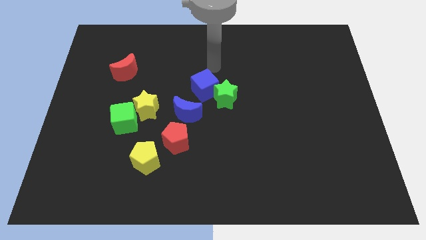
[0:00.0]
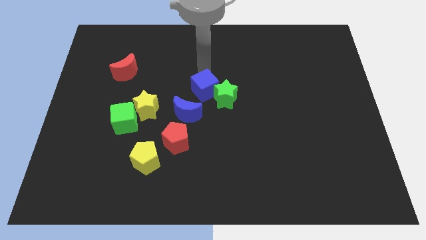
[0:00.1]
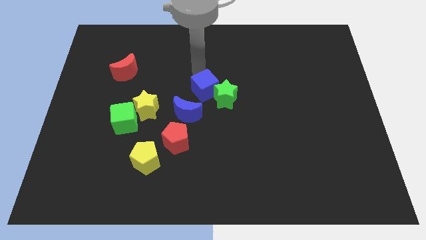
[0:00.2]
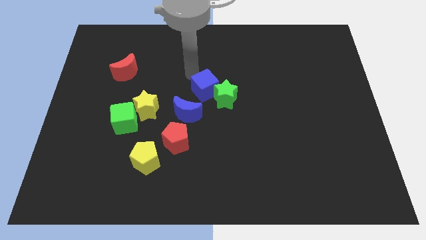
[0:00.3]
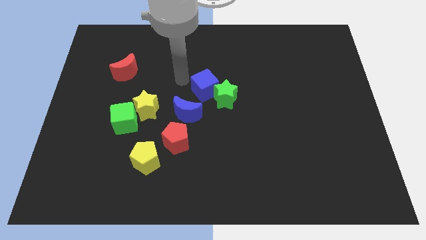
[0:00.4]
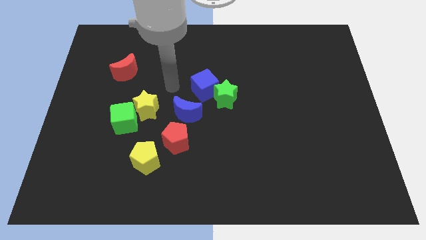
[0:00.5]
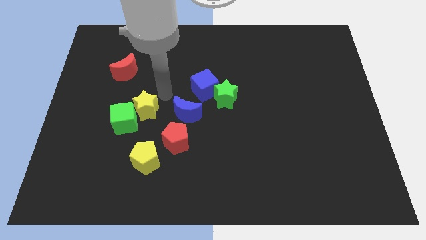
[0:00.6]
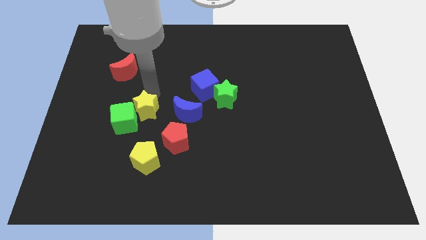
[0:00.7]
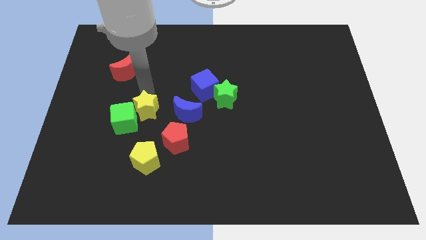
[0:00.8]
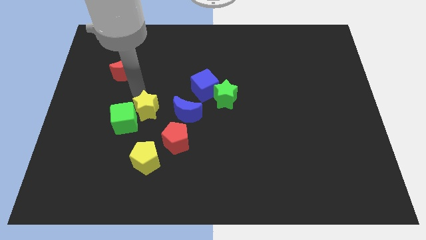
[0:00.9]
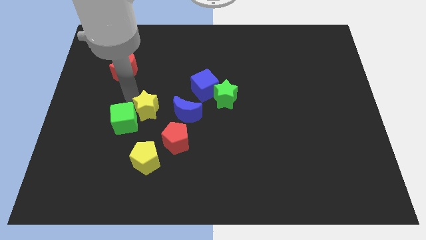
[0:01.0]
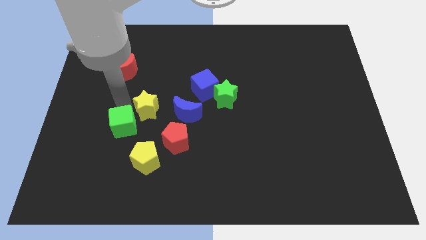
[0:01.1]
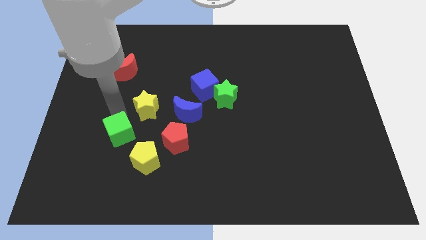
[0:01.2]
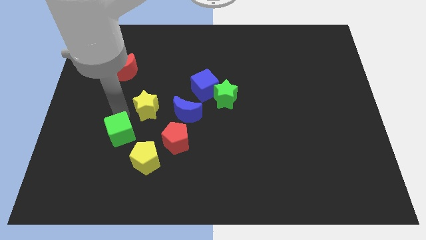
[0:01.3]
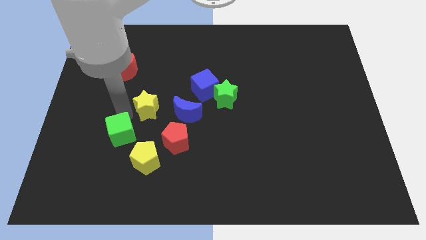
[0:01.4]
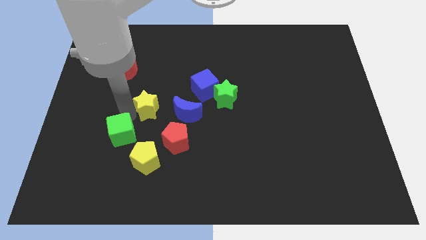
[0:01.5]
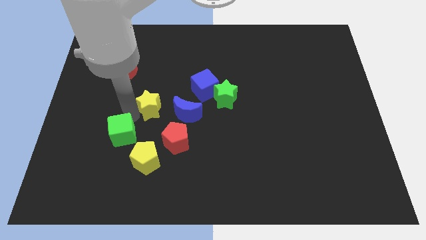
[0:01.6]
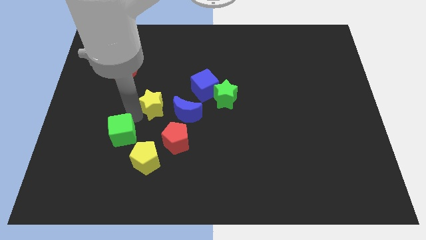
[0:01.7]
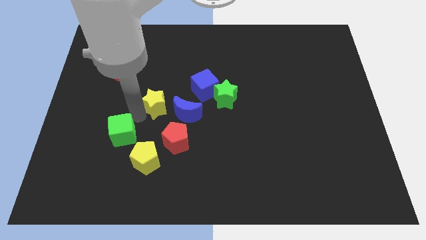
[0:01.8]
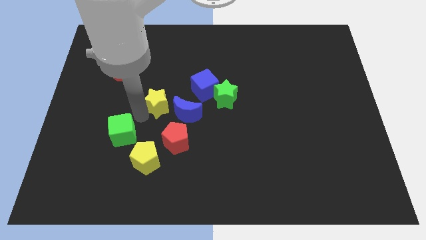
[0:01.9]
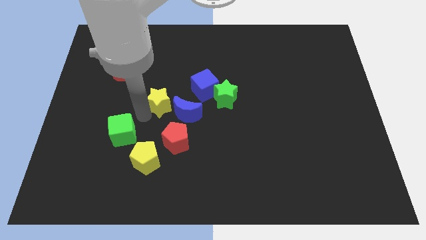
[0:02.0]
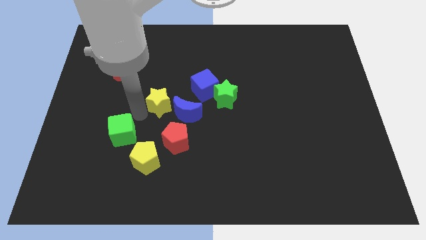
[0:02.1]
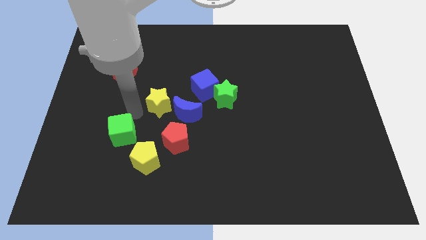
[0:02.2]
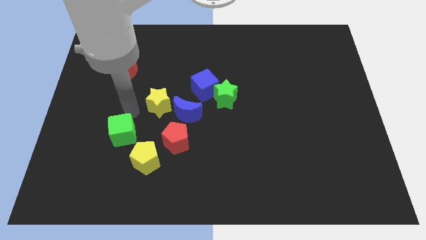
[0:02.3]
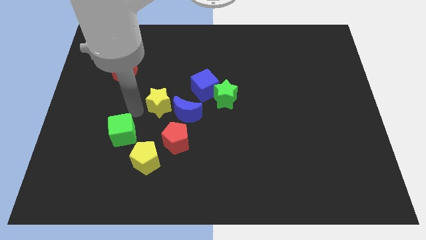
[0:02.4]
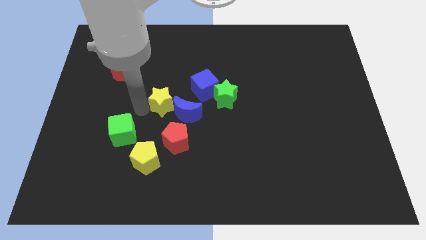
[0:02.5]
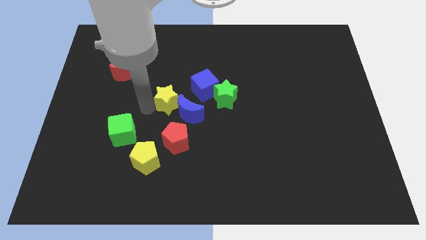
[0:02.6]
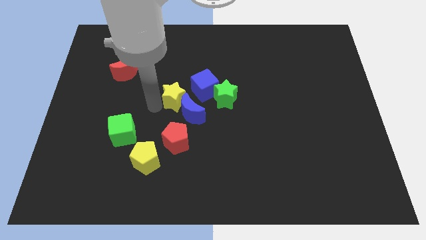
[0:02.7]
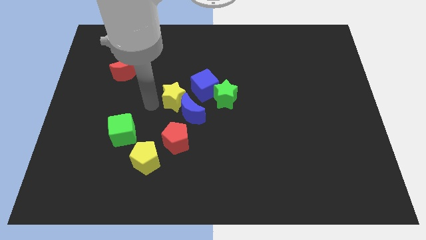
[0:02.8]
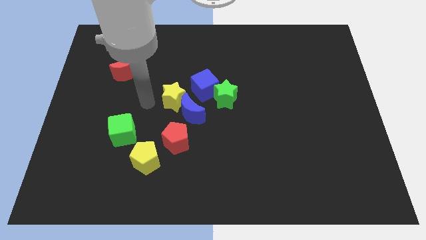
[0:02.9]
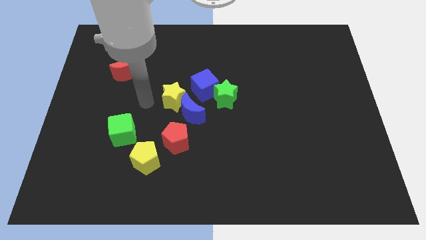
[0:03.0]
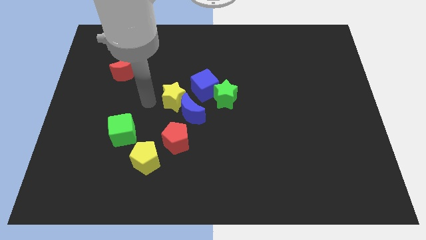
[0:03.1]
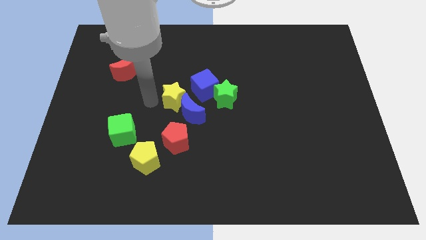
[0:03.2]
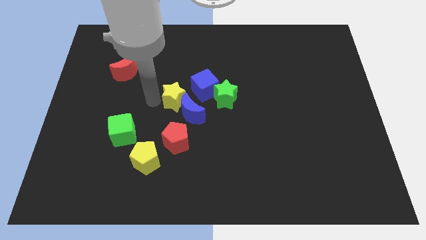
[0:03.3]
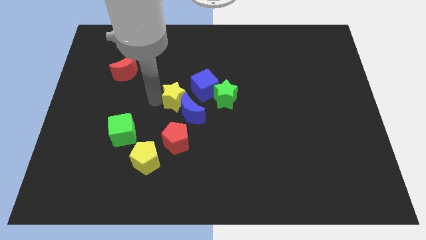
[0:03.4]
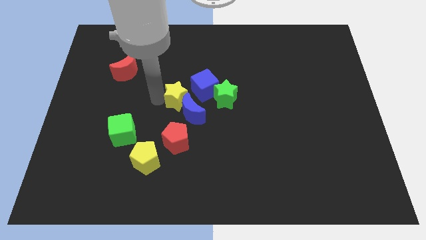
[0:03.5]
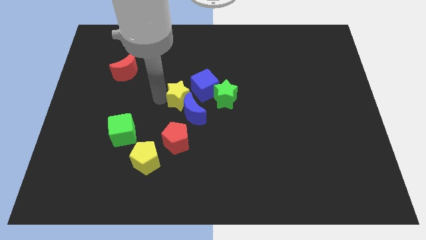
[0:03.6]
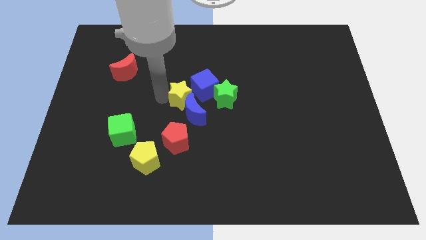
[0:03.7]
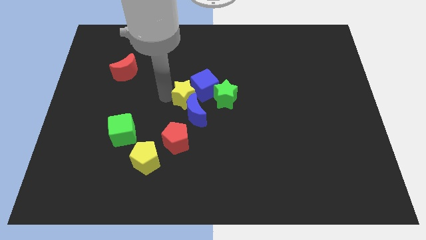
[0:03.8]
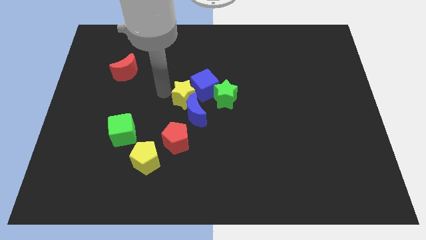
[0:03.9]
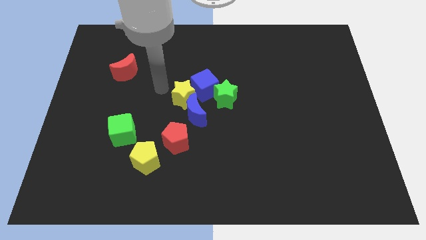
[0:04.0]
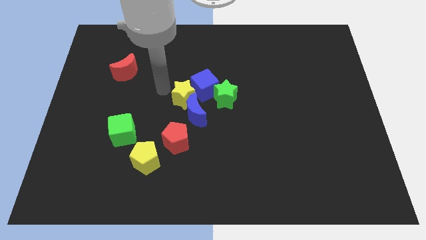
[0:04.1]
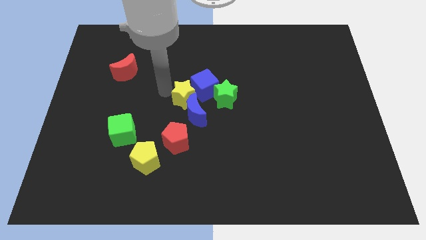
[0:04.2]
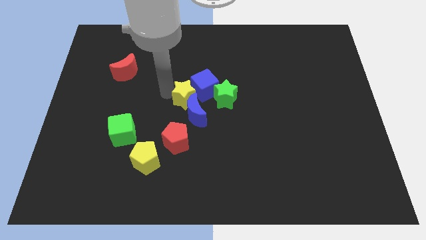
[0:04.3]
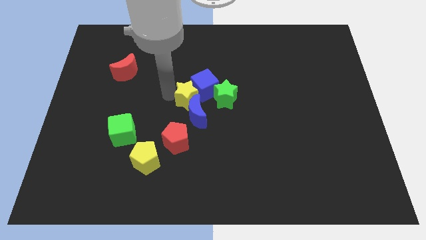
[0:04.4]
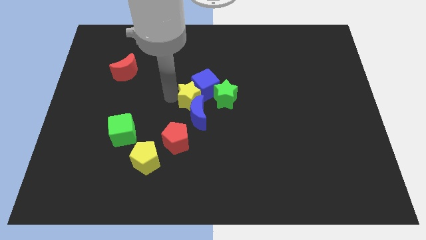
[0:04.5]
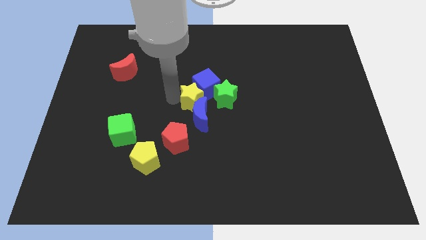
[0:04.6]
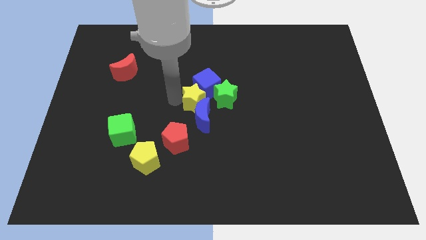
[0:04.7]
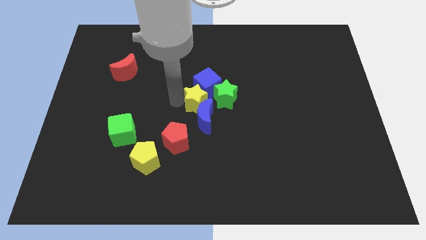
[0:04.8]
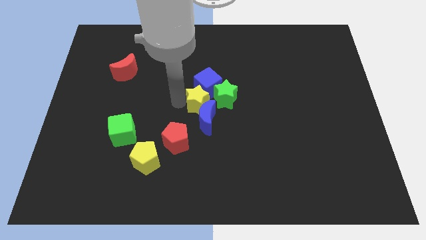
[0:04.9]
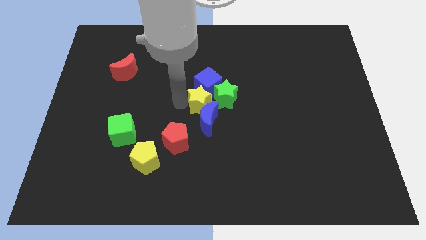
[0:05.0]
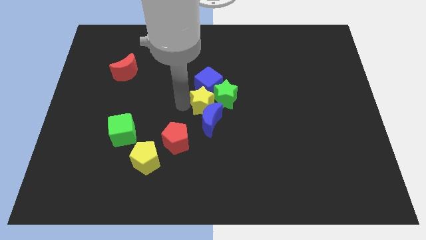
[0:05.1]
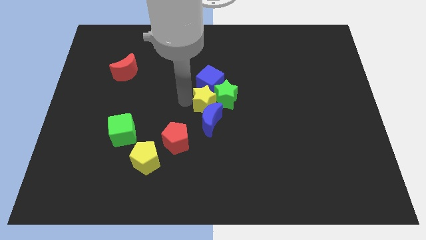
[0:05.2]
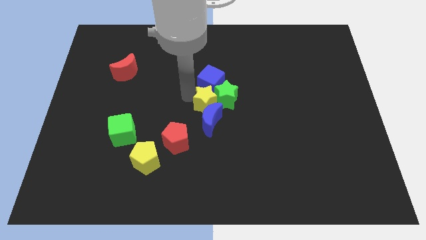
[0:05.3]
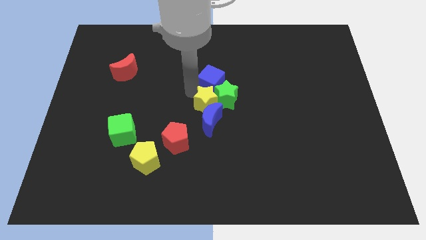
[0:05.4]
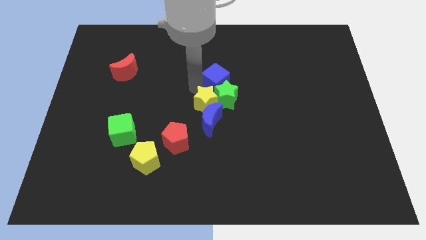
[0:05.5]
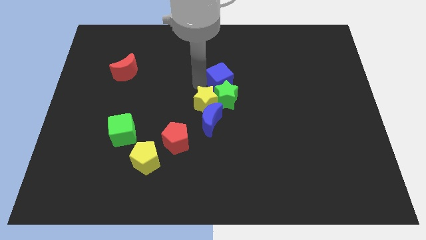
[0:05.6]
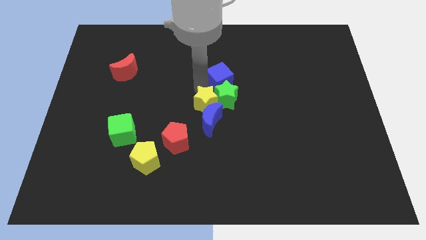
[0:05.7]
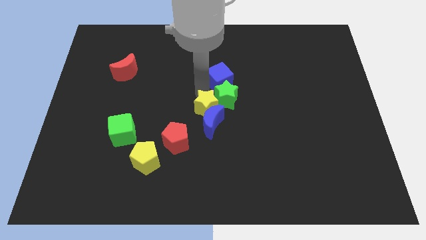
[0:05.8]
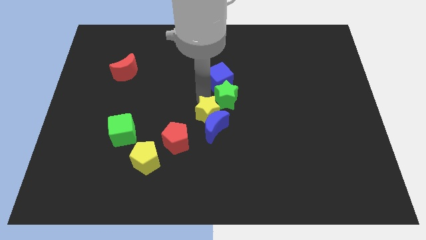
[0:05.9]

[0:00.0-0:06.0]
push the yellow star down and right diagonally slightly

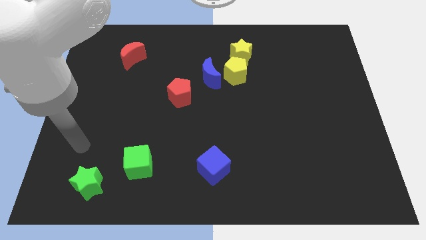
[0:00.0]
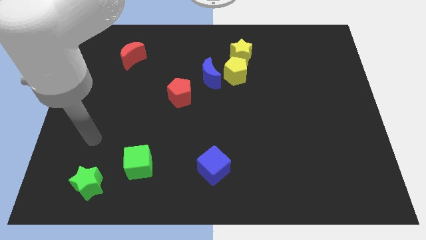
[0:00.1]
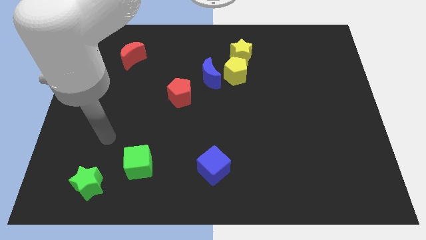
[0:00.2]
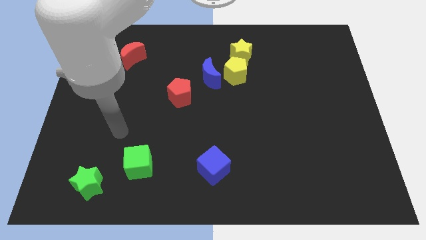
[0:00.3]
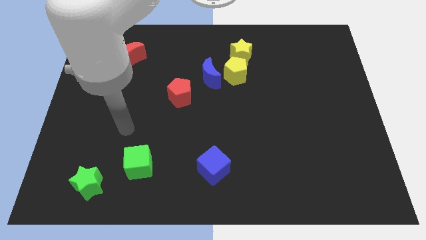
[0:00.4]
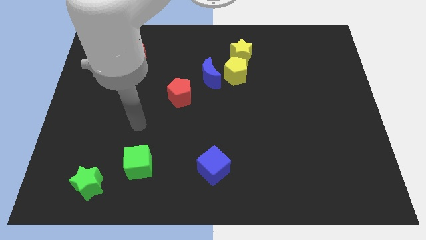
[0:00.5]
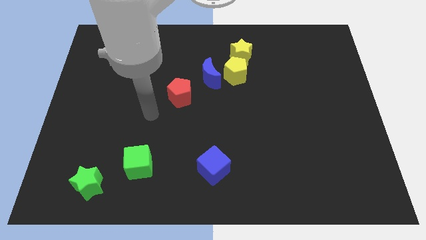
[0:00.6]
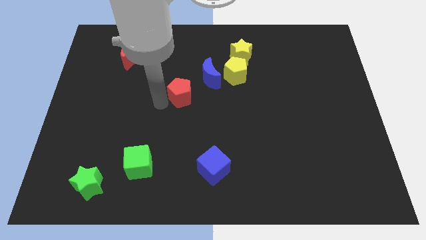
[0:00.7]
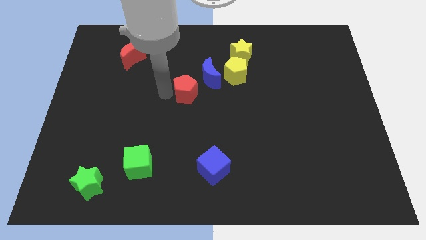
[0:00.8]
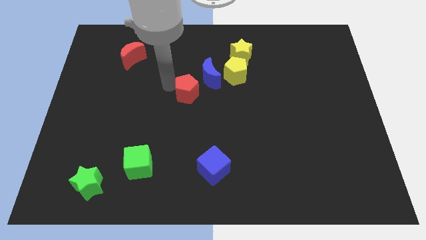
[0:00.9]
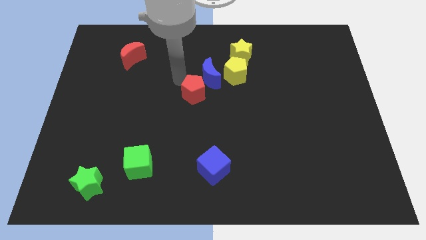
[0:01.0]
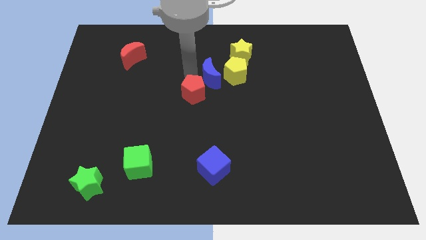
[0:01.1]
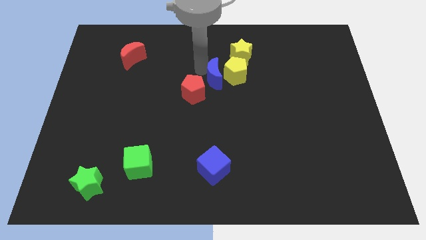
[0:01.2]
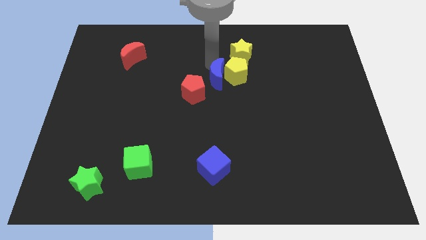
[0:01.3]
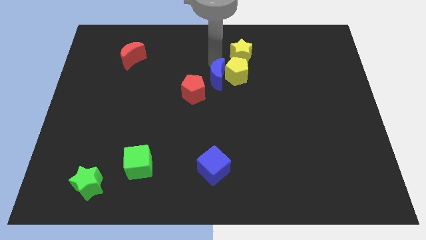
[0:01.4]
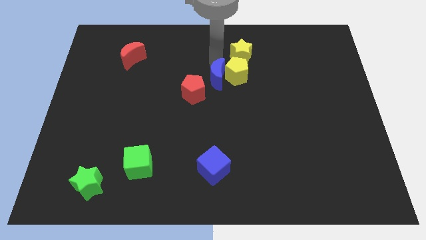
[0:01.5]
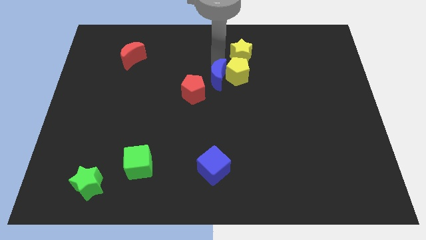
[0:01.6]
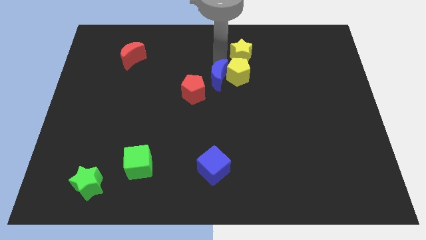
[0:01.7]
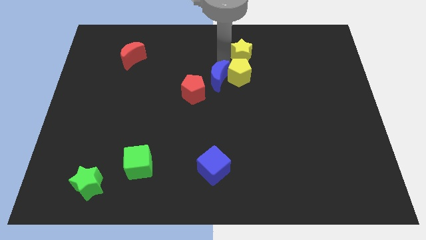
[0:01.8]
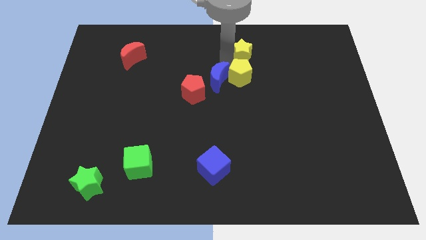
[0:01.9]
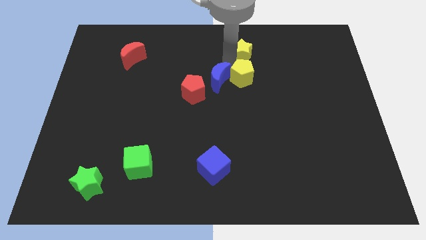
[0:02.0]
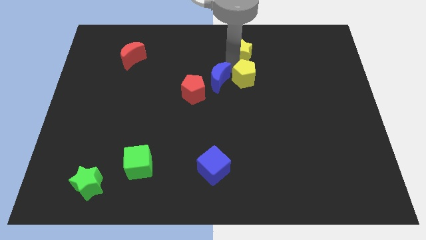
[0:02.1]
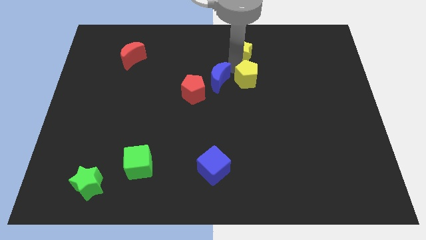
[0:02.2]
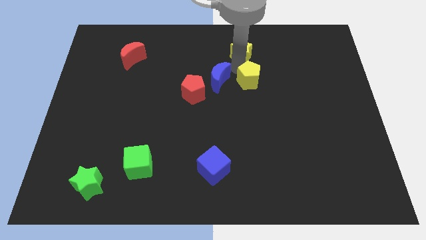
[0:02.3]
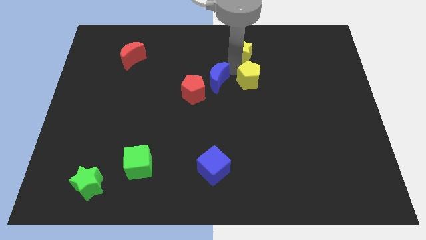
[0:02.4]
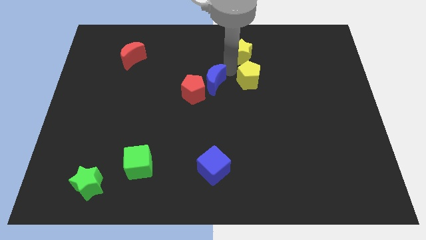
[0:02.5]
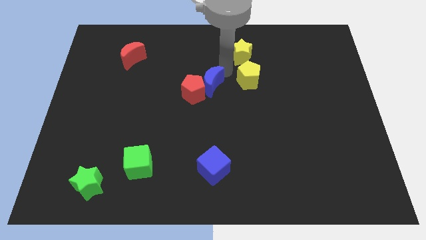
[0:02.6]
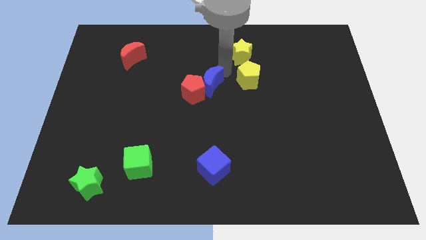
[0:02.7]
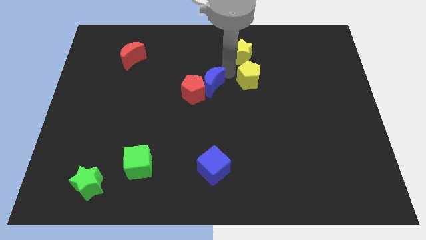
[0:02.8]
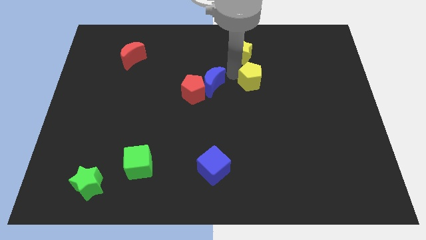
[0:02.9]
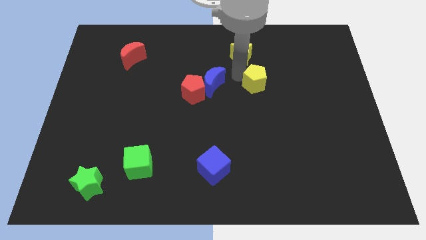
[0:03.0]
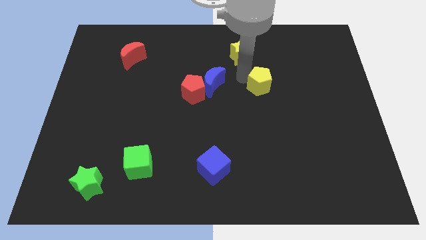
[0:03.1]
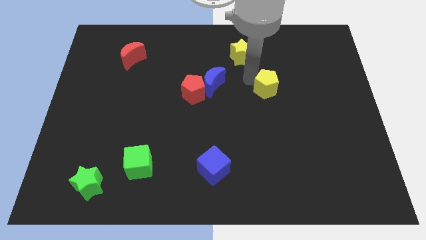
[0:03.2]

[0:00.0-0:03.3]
push the yellow pentagon slightly down and then right
